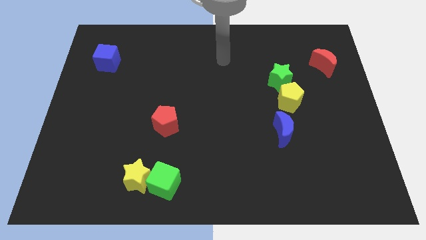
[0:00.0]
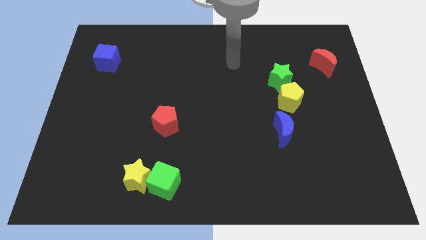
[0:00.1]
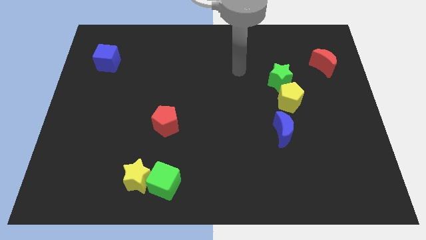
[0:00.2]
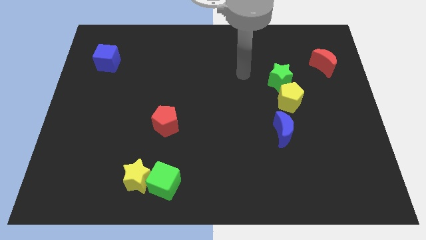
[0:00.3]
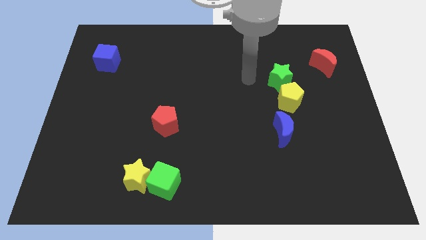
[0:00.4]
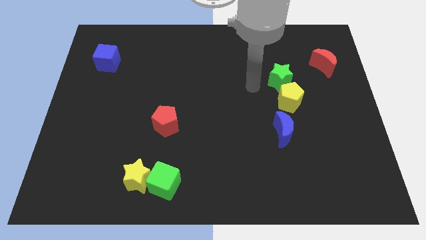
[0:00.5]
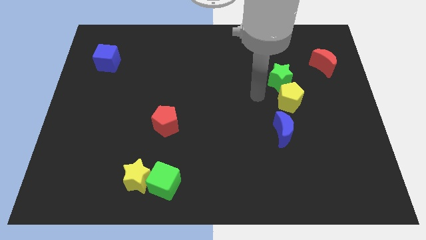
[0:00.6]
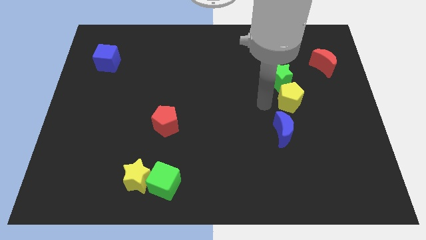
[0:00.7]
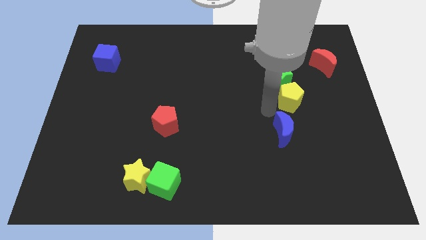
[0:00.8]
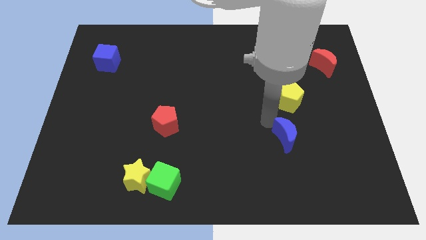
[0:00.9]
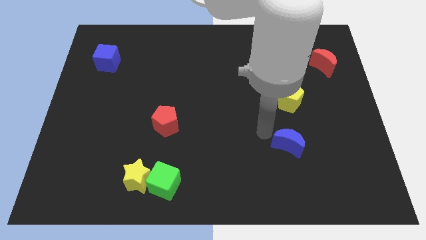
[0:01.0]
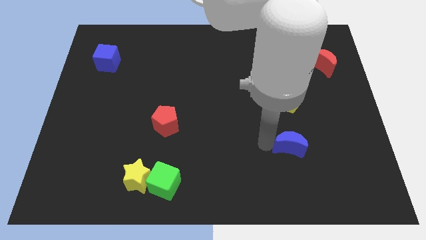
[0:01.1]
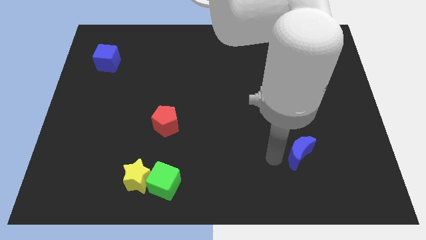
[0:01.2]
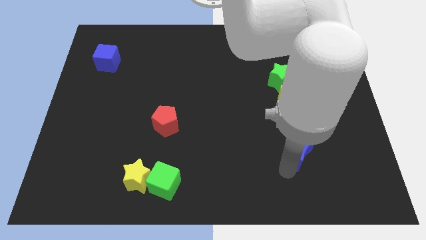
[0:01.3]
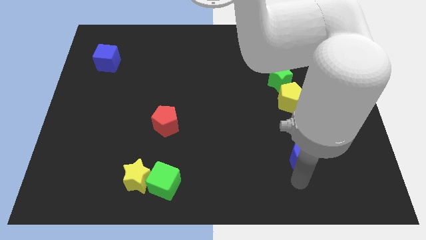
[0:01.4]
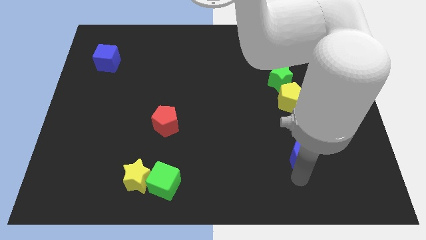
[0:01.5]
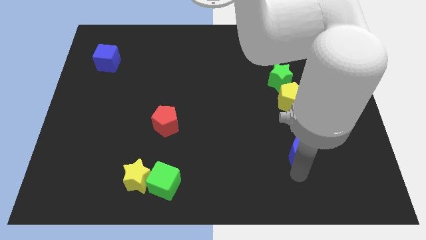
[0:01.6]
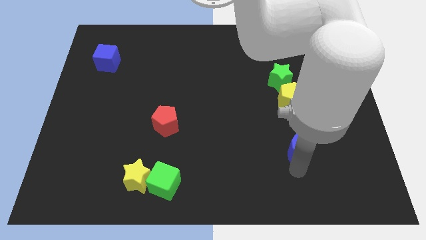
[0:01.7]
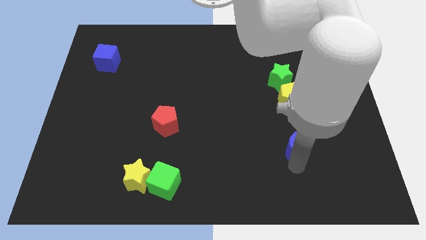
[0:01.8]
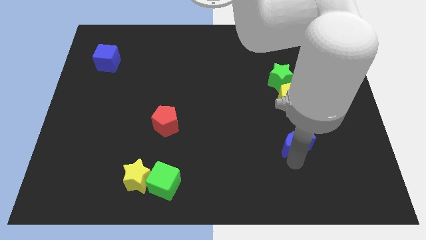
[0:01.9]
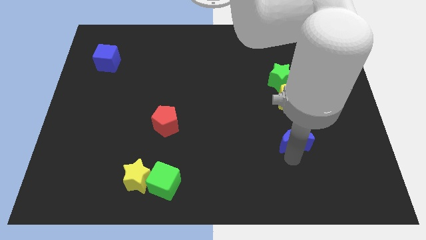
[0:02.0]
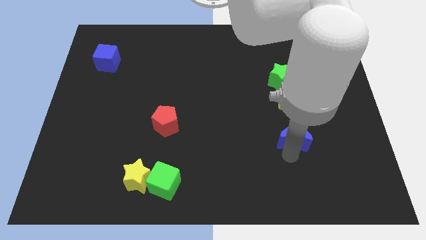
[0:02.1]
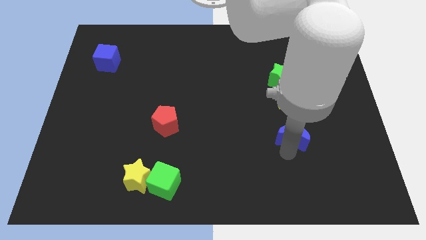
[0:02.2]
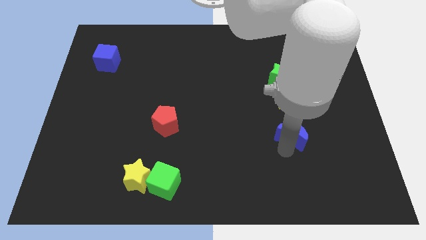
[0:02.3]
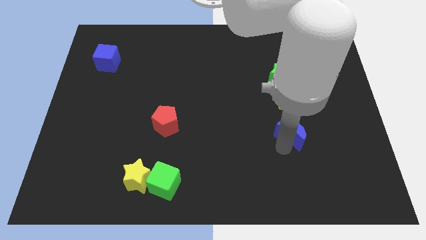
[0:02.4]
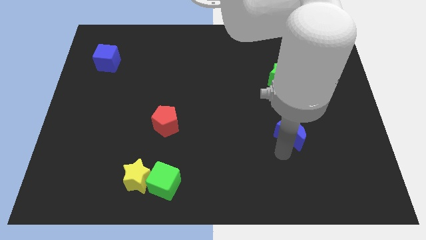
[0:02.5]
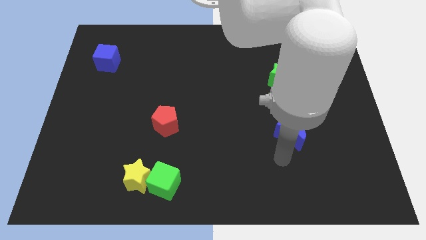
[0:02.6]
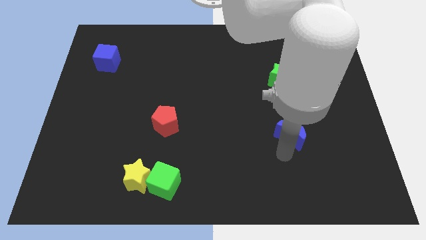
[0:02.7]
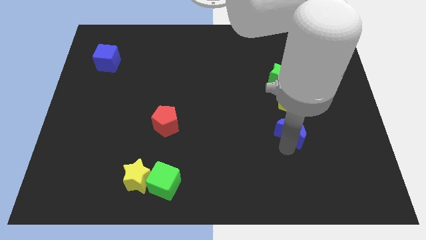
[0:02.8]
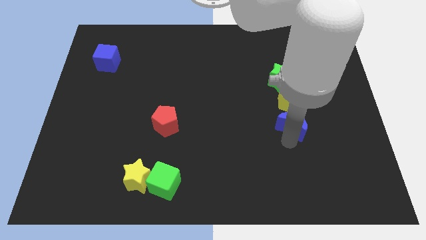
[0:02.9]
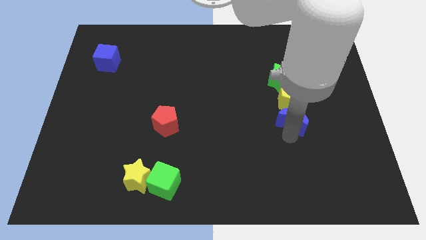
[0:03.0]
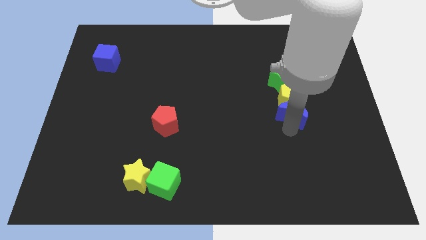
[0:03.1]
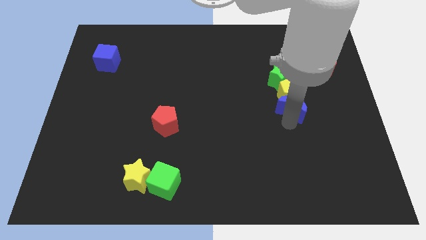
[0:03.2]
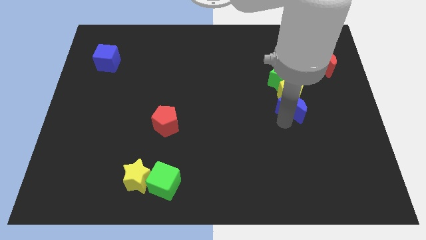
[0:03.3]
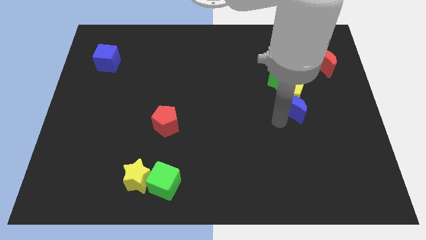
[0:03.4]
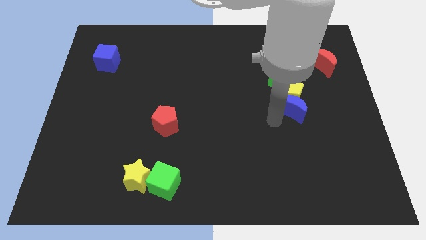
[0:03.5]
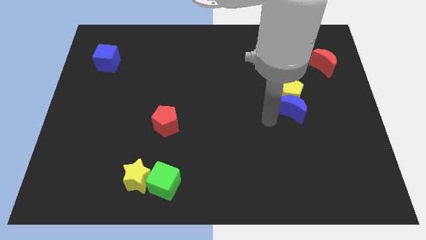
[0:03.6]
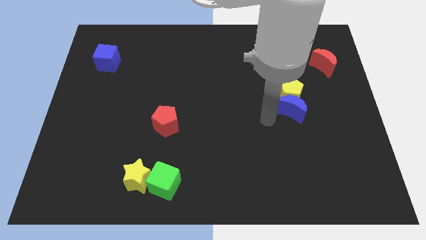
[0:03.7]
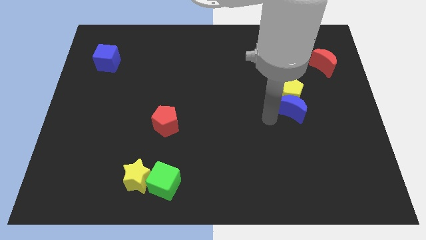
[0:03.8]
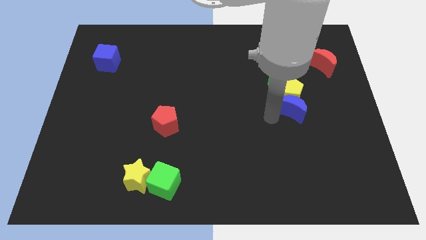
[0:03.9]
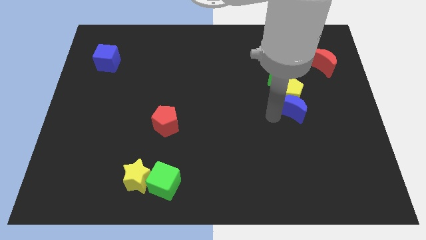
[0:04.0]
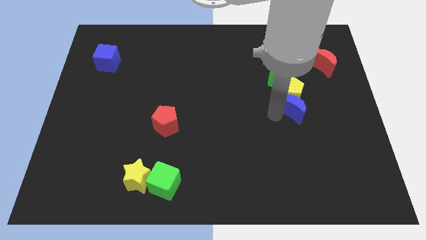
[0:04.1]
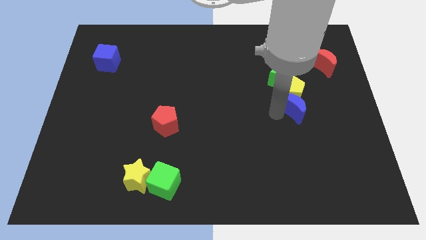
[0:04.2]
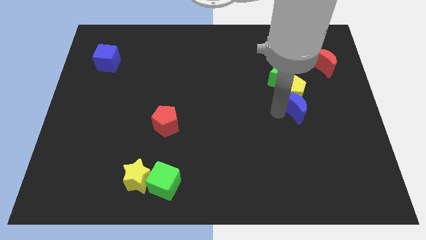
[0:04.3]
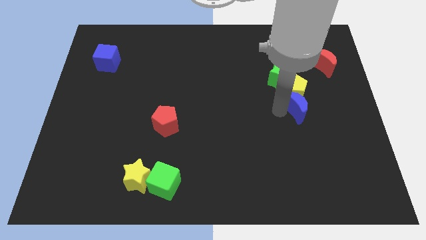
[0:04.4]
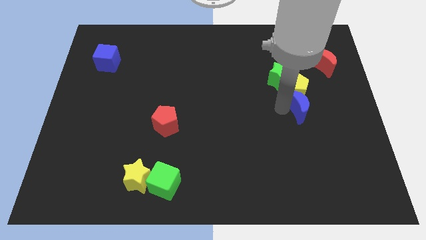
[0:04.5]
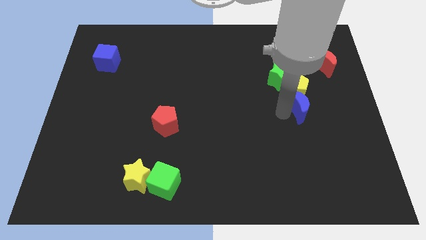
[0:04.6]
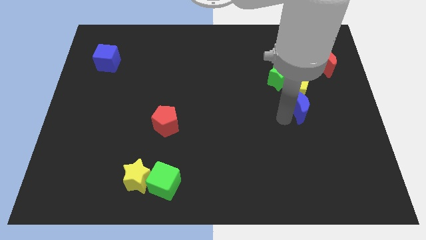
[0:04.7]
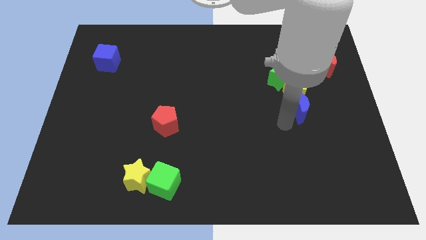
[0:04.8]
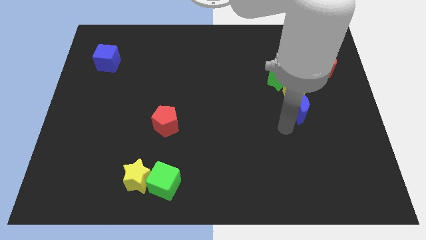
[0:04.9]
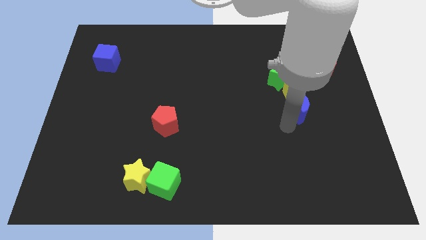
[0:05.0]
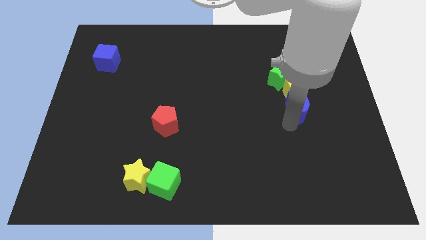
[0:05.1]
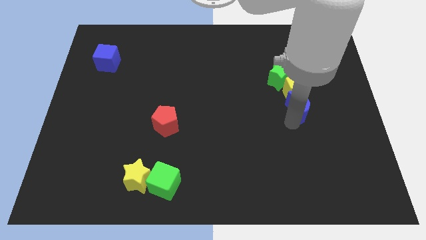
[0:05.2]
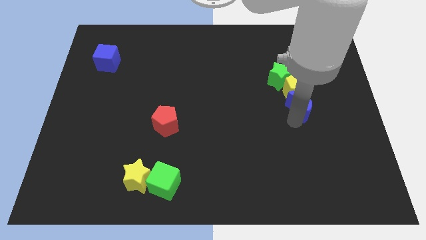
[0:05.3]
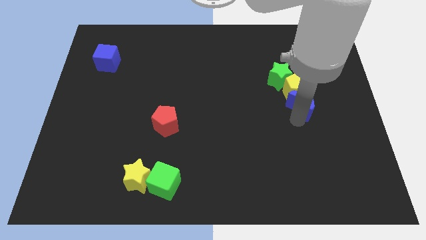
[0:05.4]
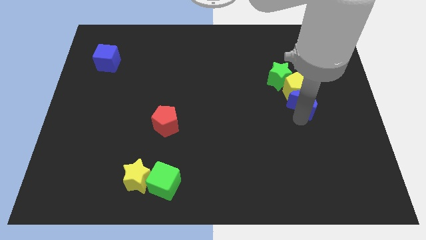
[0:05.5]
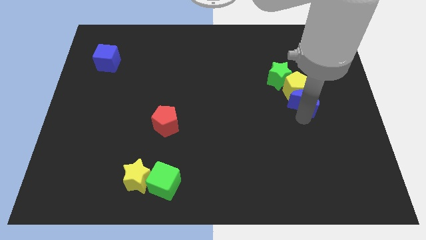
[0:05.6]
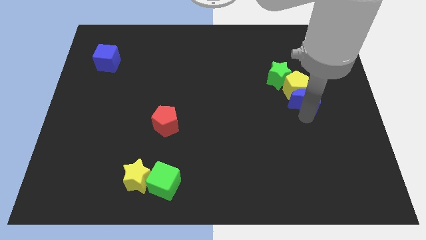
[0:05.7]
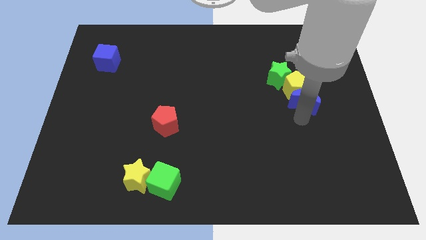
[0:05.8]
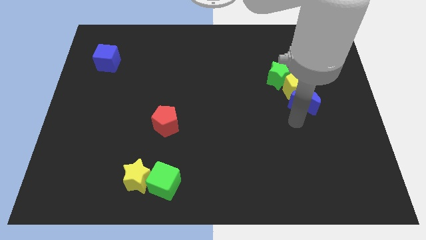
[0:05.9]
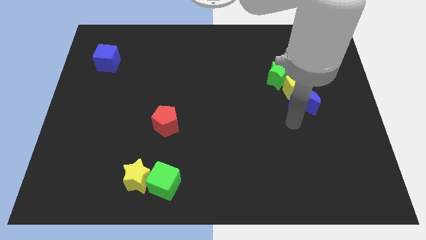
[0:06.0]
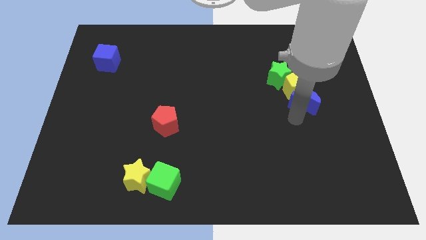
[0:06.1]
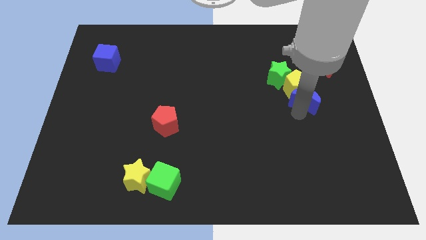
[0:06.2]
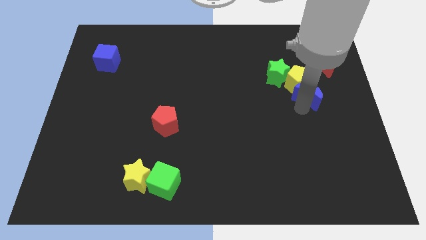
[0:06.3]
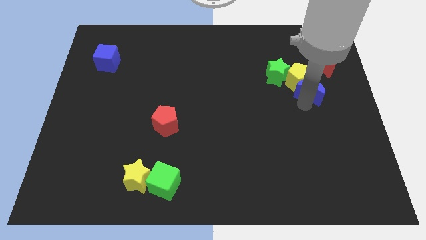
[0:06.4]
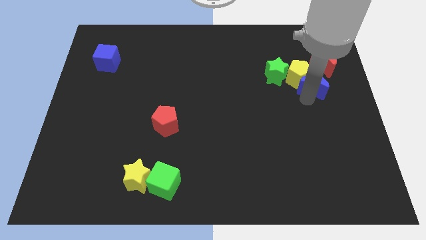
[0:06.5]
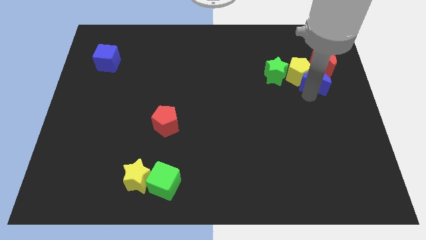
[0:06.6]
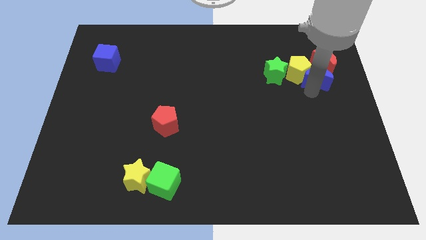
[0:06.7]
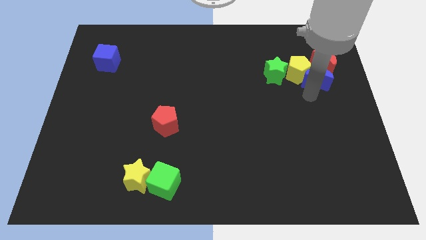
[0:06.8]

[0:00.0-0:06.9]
push the blue moon close to the red moon

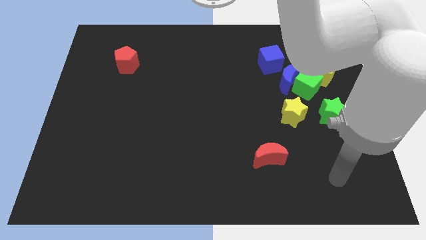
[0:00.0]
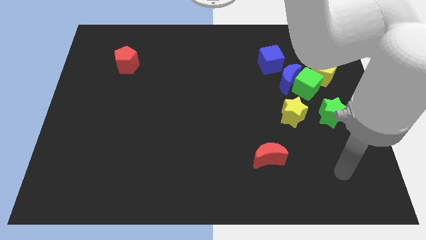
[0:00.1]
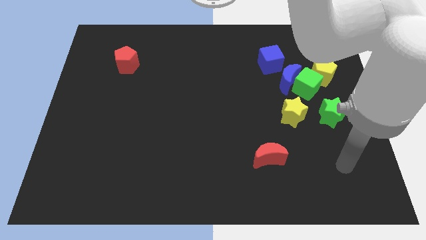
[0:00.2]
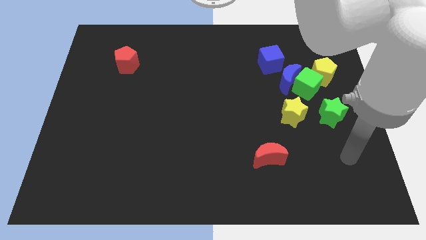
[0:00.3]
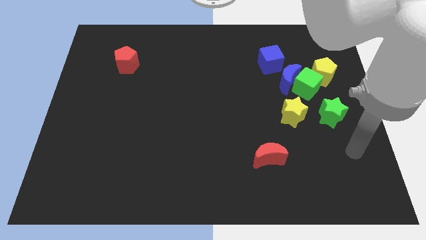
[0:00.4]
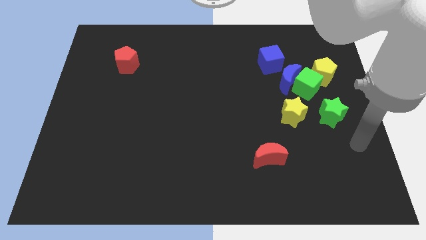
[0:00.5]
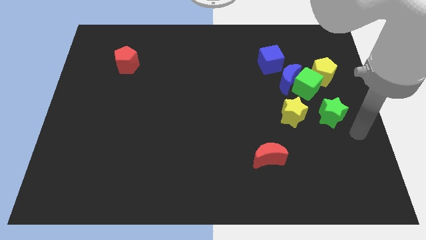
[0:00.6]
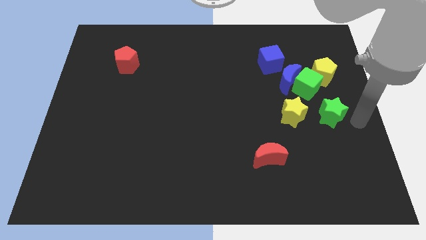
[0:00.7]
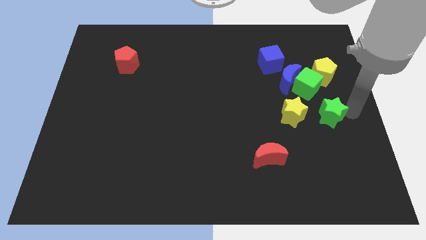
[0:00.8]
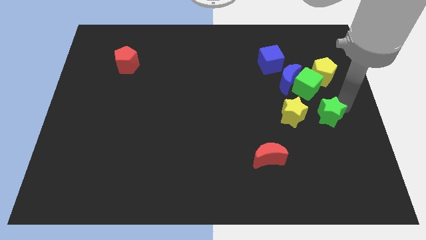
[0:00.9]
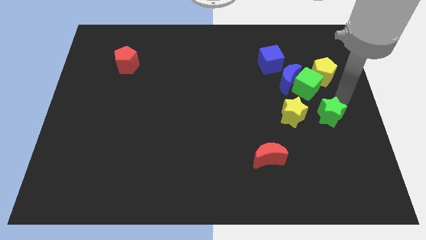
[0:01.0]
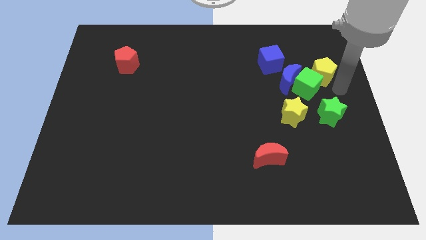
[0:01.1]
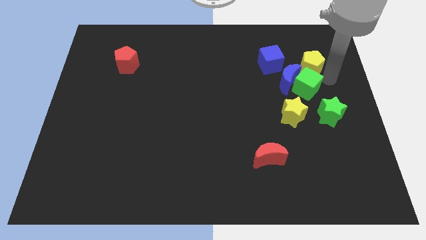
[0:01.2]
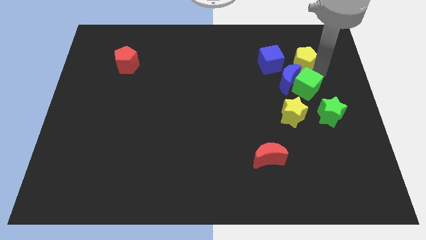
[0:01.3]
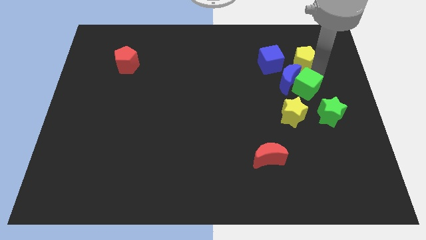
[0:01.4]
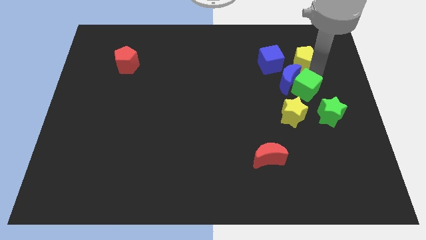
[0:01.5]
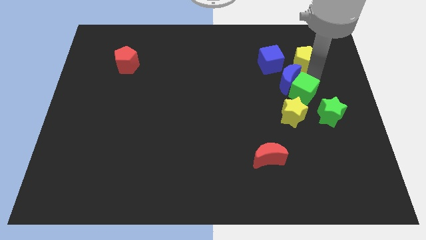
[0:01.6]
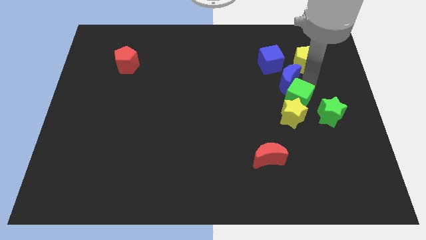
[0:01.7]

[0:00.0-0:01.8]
push the green cube towards the yellow star
